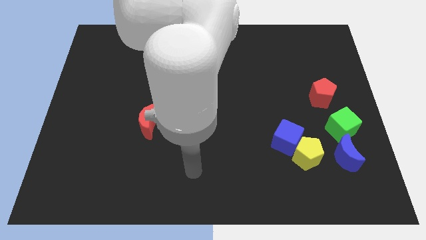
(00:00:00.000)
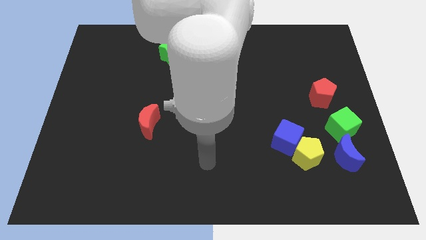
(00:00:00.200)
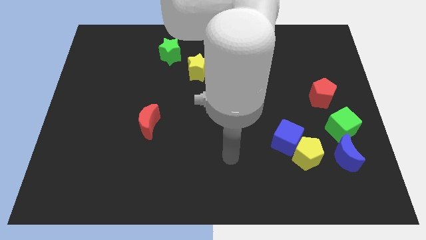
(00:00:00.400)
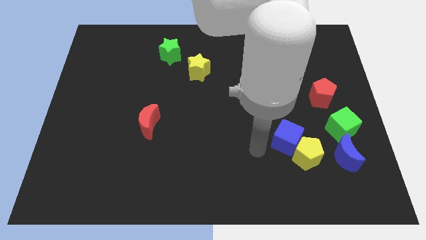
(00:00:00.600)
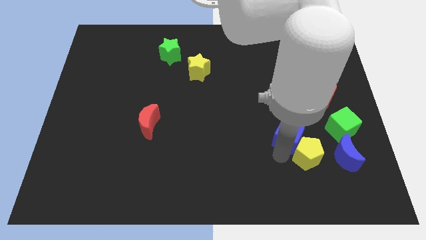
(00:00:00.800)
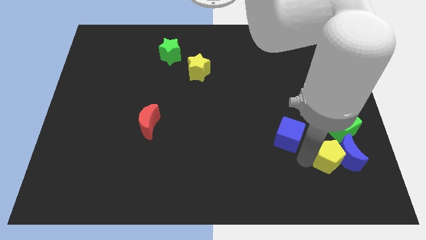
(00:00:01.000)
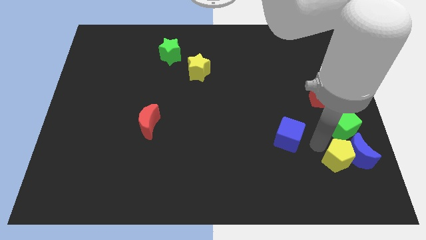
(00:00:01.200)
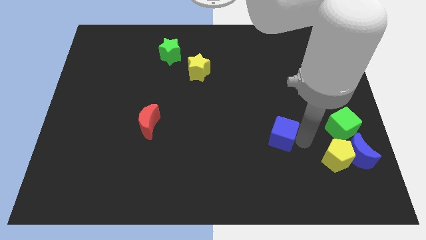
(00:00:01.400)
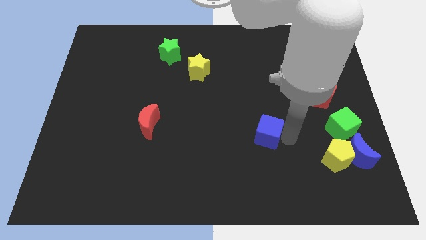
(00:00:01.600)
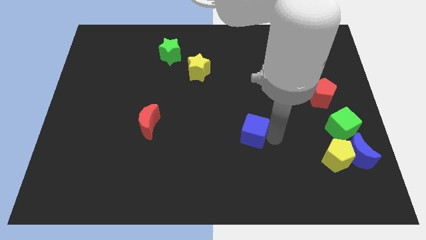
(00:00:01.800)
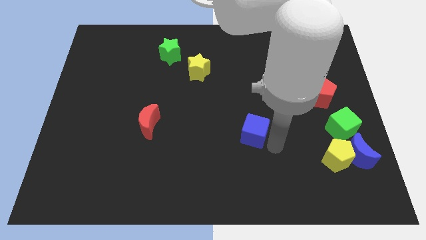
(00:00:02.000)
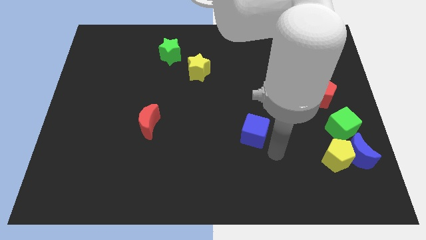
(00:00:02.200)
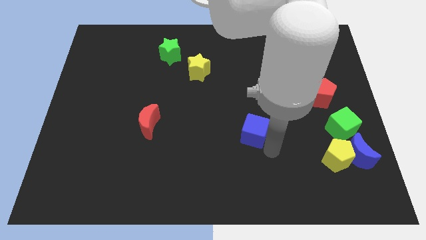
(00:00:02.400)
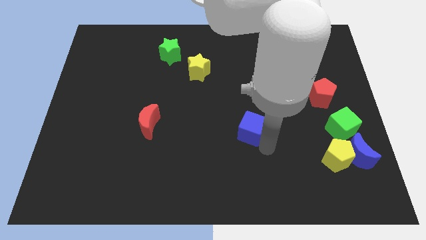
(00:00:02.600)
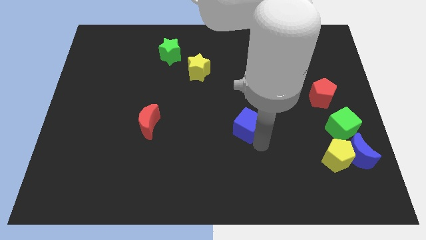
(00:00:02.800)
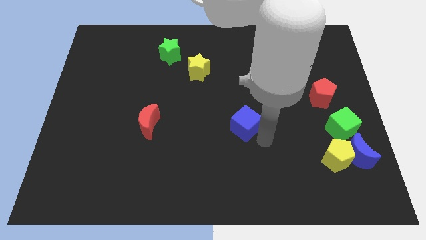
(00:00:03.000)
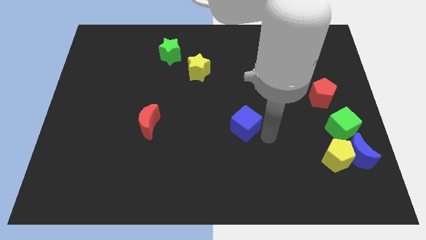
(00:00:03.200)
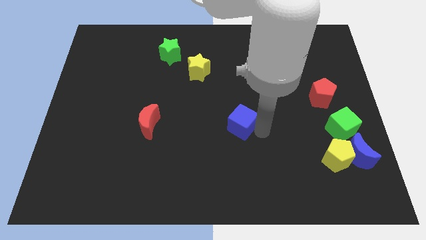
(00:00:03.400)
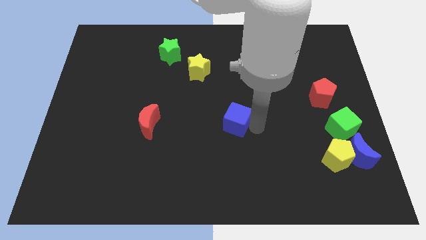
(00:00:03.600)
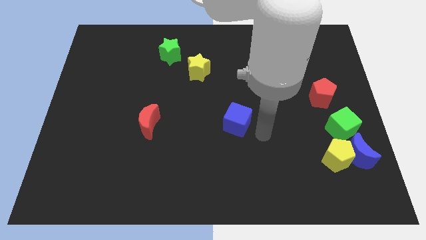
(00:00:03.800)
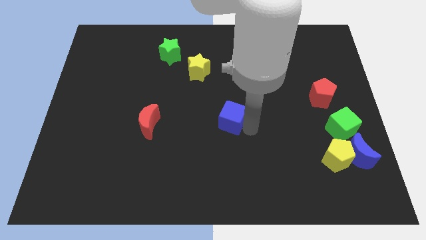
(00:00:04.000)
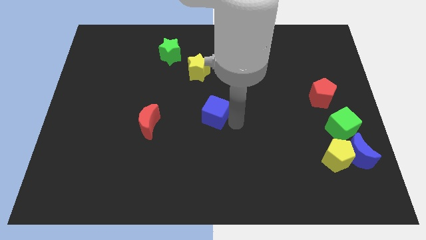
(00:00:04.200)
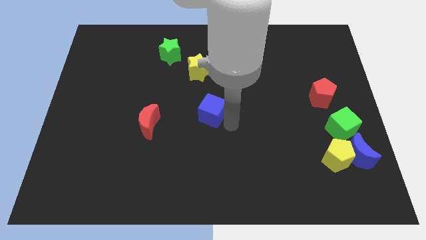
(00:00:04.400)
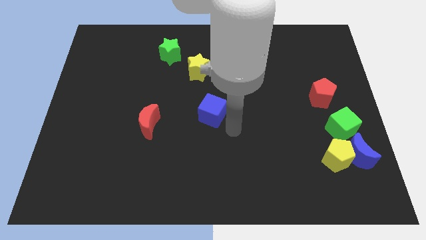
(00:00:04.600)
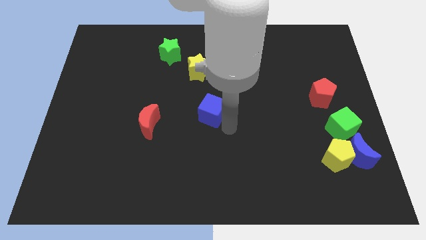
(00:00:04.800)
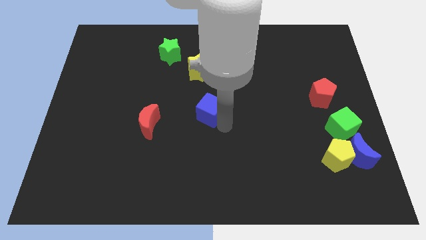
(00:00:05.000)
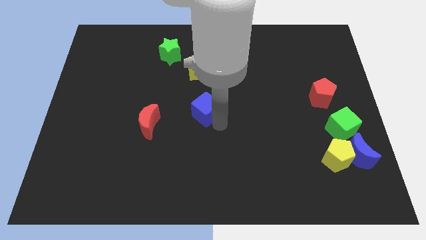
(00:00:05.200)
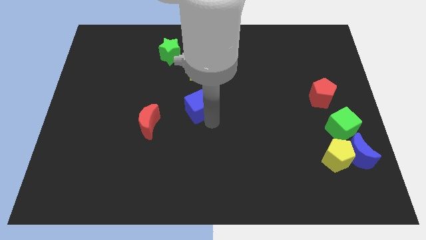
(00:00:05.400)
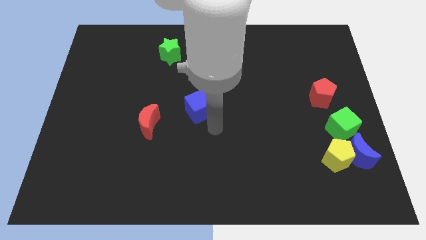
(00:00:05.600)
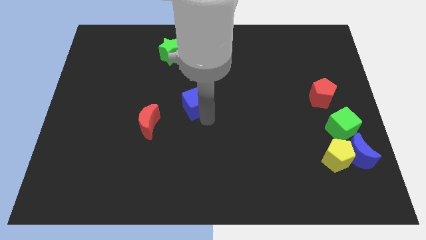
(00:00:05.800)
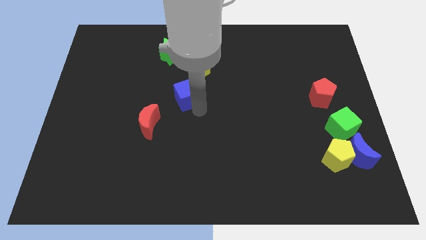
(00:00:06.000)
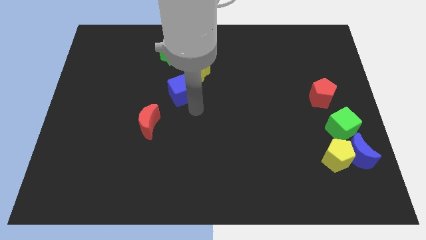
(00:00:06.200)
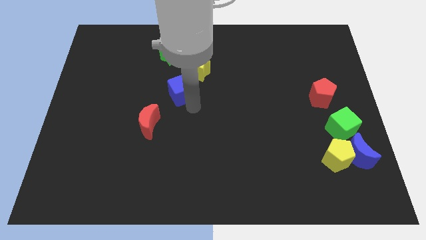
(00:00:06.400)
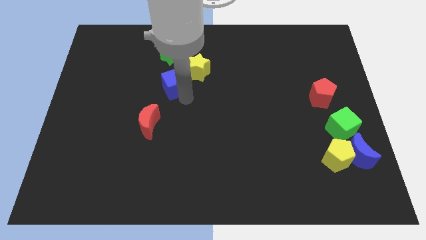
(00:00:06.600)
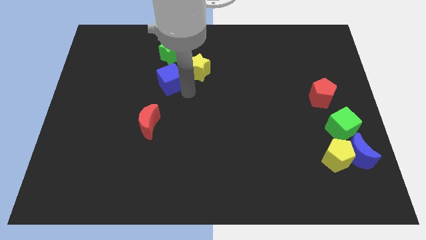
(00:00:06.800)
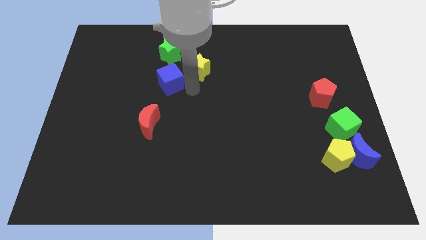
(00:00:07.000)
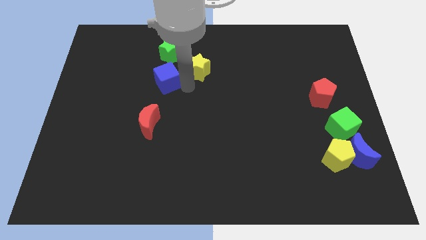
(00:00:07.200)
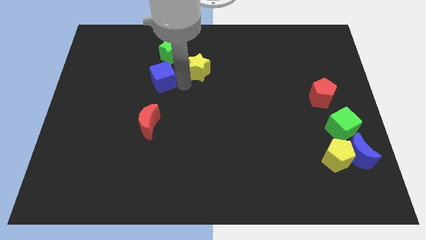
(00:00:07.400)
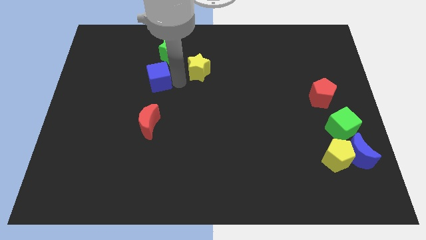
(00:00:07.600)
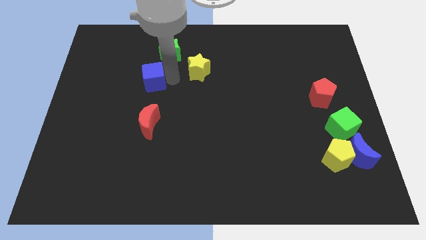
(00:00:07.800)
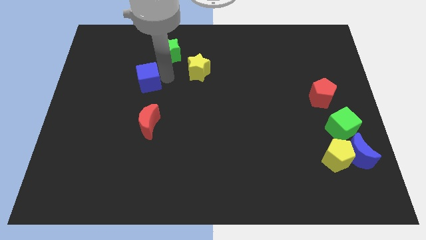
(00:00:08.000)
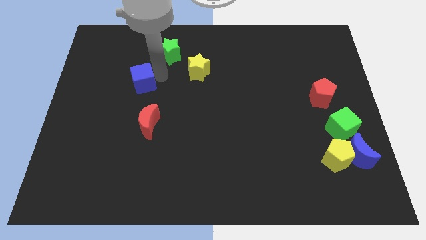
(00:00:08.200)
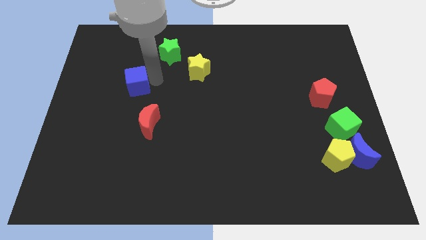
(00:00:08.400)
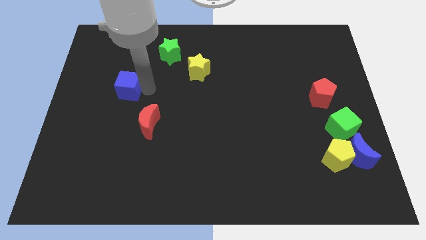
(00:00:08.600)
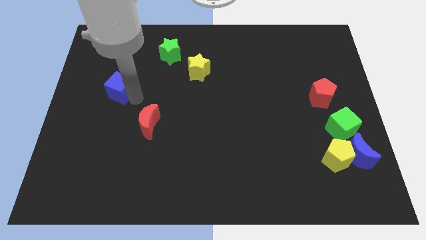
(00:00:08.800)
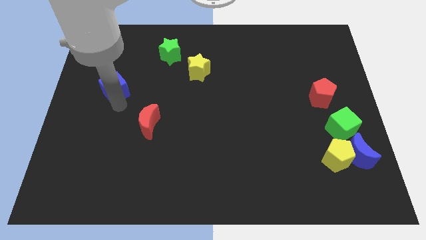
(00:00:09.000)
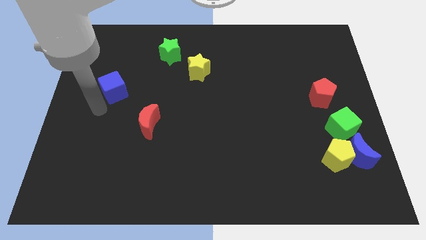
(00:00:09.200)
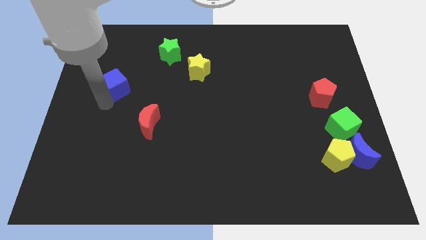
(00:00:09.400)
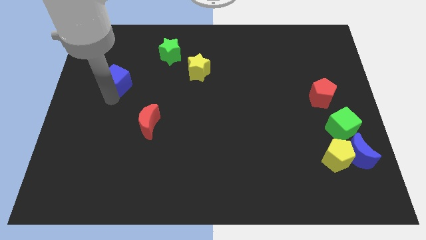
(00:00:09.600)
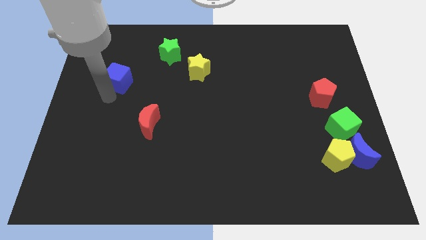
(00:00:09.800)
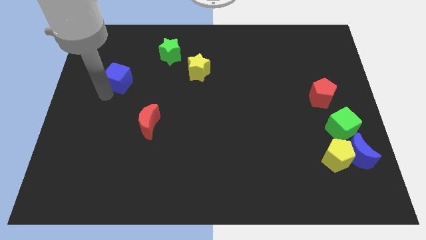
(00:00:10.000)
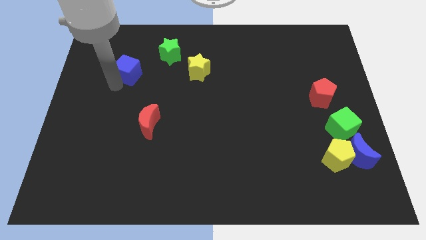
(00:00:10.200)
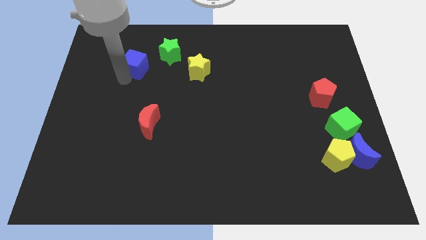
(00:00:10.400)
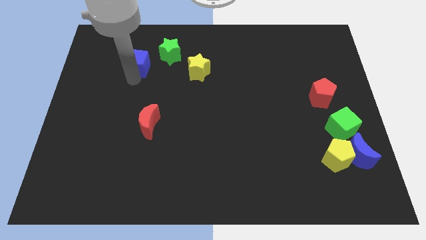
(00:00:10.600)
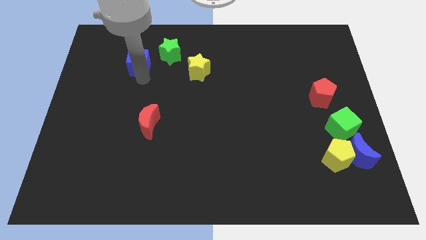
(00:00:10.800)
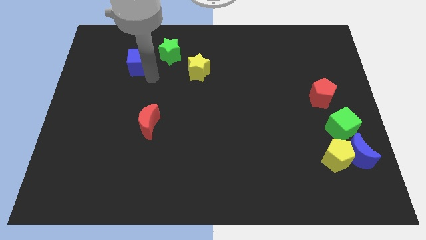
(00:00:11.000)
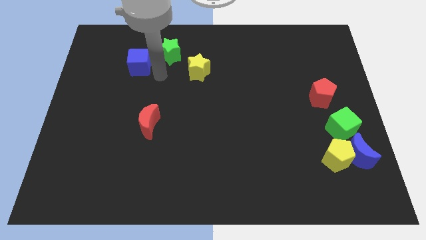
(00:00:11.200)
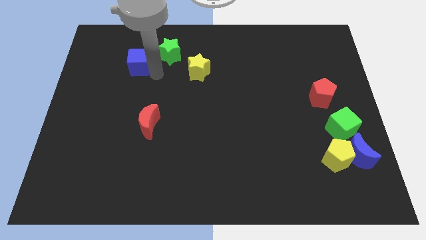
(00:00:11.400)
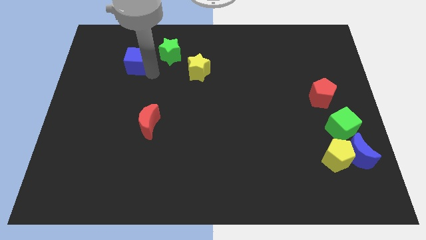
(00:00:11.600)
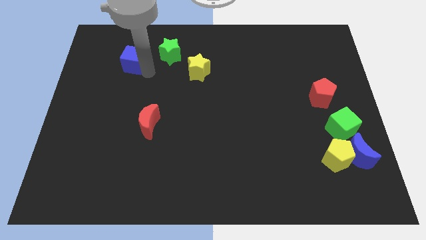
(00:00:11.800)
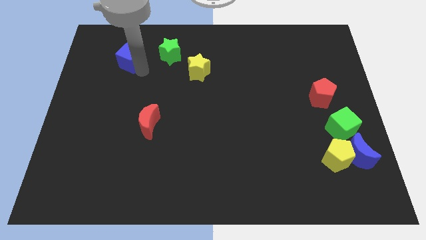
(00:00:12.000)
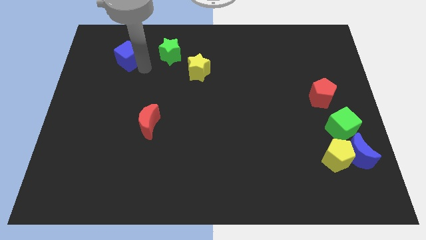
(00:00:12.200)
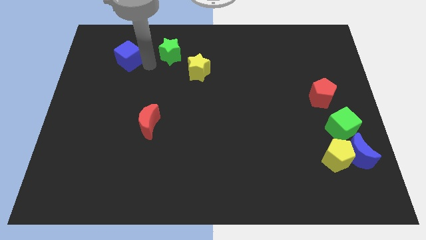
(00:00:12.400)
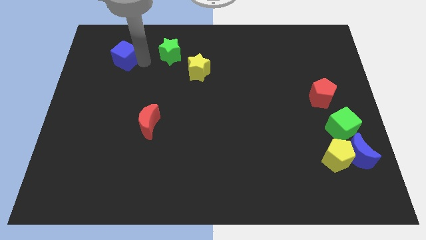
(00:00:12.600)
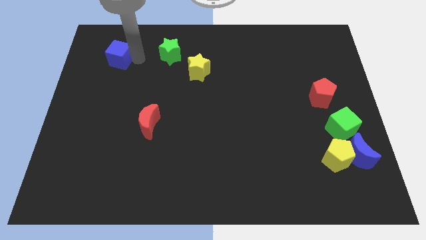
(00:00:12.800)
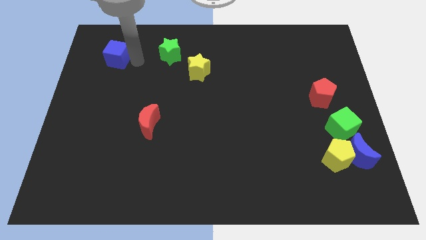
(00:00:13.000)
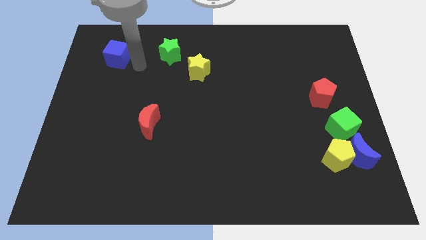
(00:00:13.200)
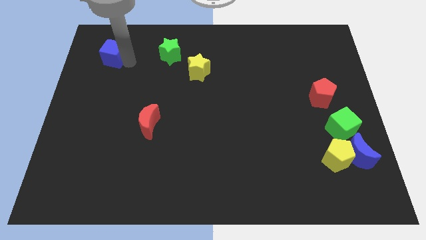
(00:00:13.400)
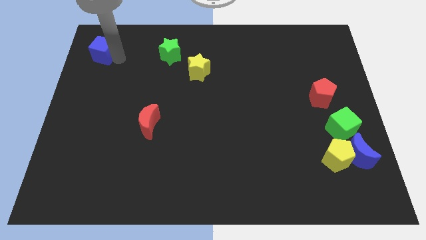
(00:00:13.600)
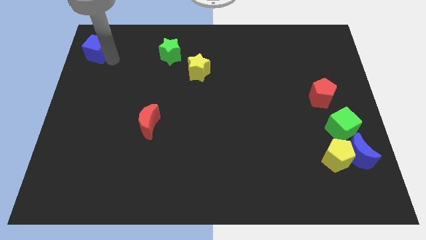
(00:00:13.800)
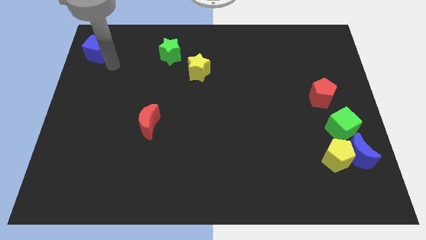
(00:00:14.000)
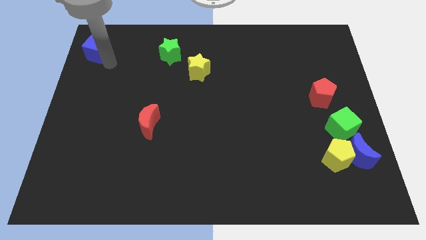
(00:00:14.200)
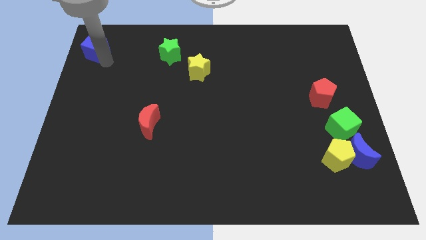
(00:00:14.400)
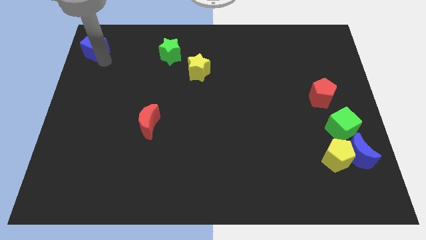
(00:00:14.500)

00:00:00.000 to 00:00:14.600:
move the blue cube to the top left of the board
